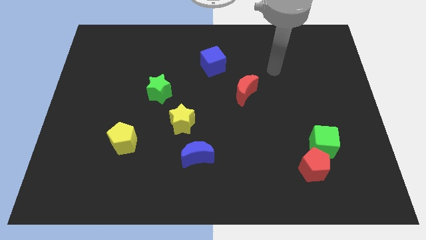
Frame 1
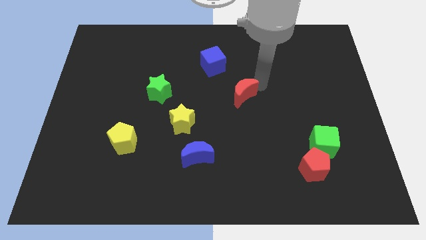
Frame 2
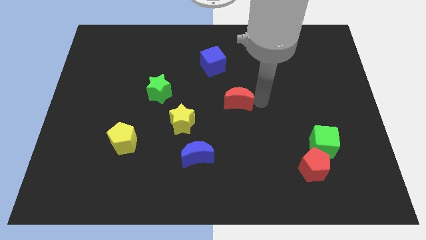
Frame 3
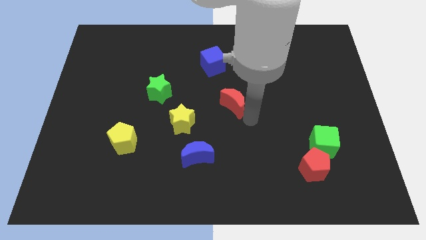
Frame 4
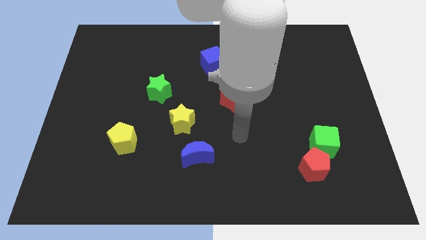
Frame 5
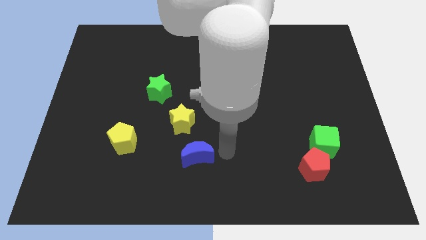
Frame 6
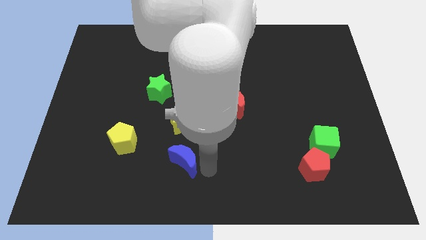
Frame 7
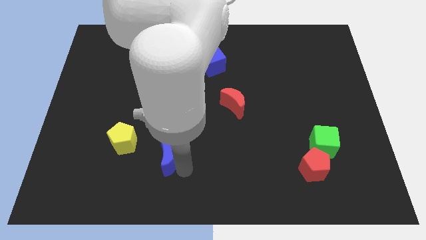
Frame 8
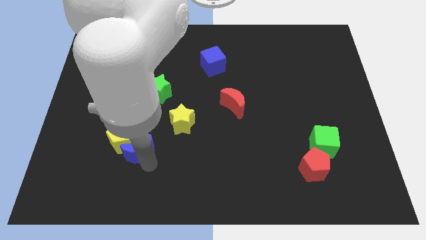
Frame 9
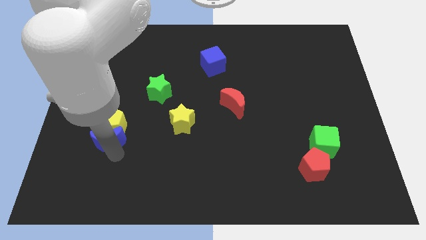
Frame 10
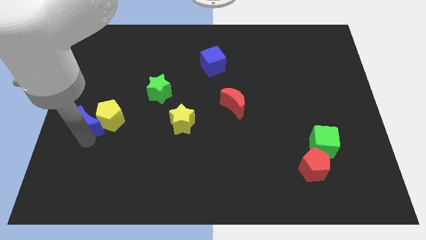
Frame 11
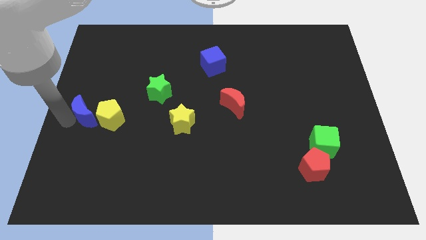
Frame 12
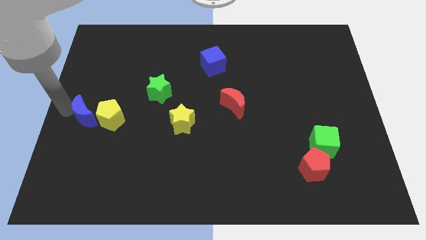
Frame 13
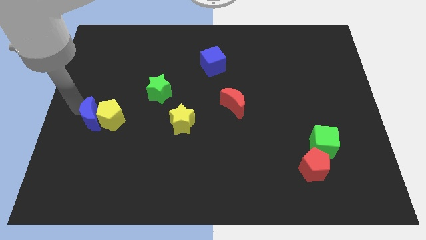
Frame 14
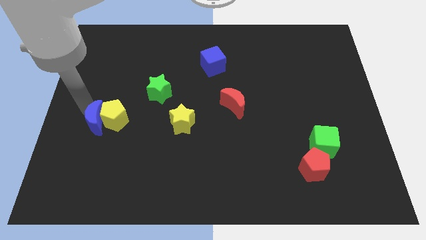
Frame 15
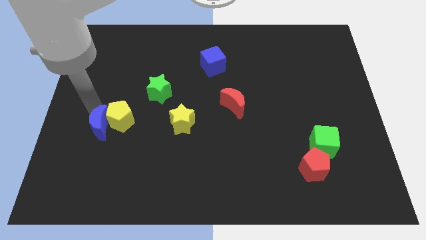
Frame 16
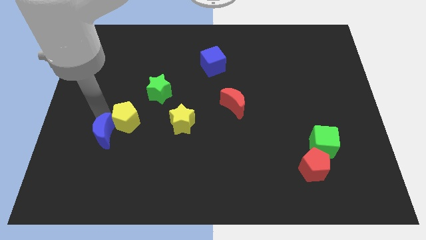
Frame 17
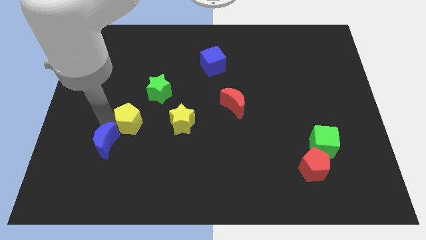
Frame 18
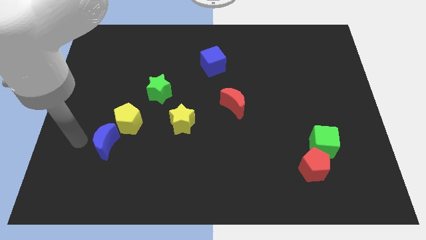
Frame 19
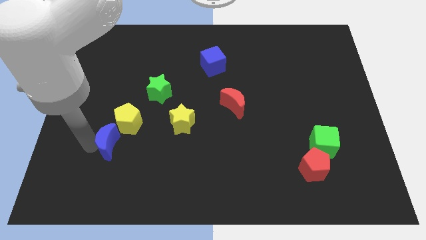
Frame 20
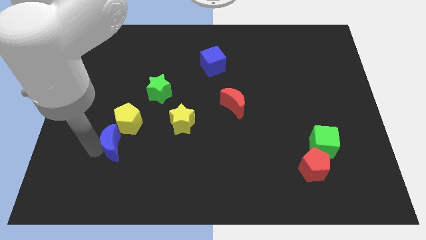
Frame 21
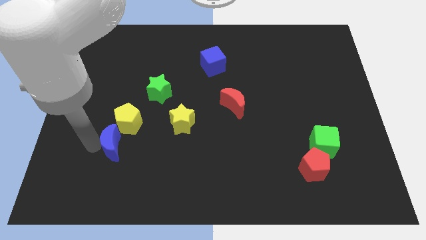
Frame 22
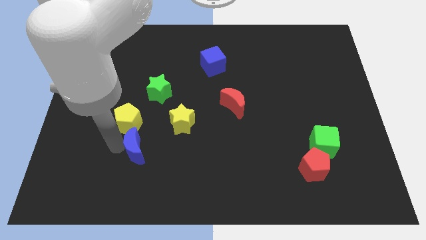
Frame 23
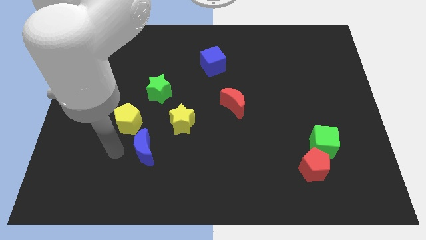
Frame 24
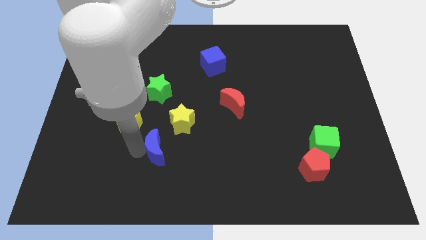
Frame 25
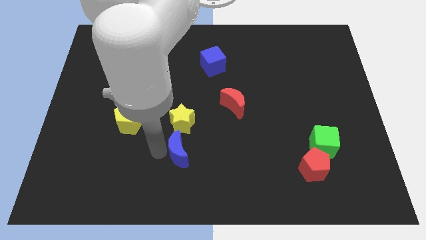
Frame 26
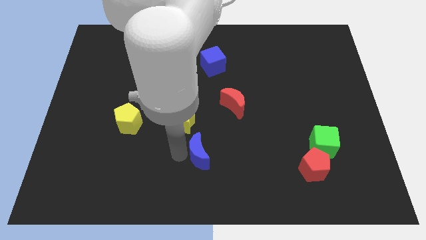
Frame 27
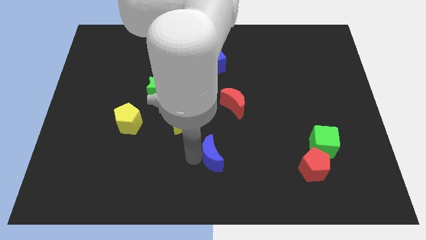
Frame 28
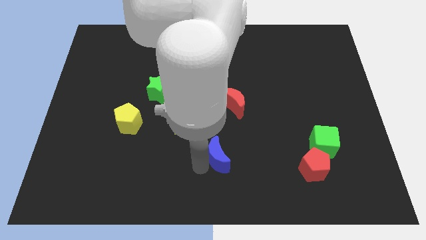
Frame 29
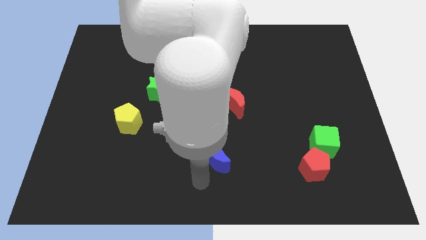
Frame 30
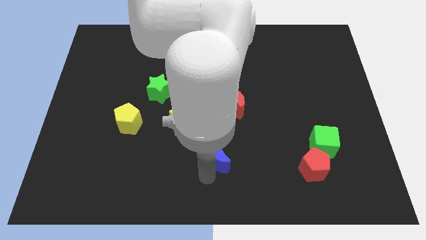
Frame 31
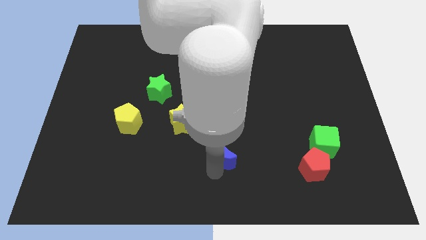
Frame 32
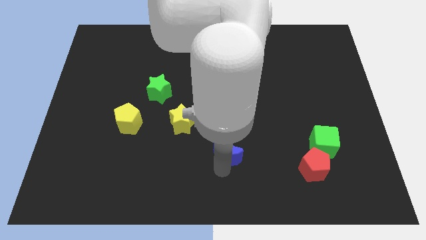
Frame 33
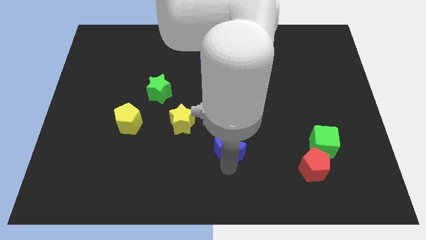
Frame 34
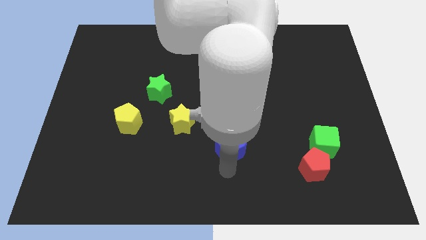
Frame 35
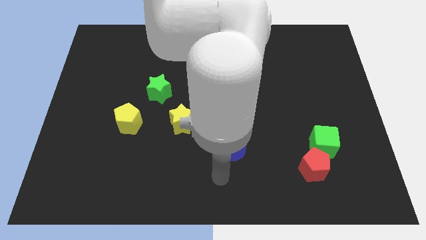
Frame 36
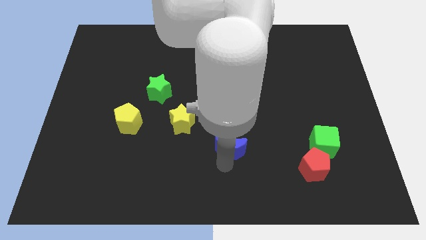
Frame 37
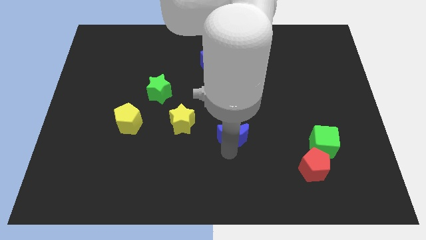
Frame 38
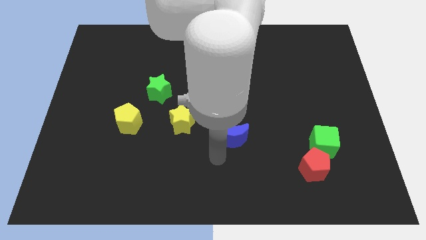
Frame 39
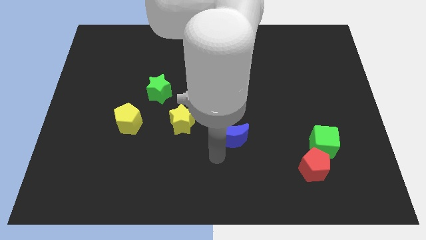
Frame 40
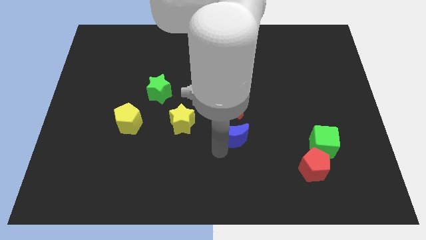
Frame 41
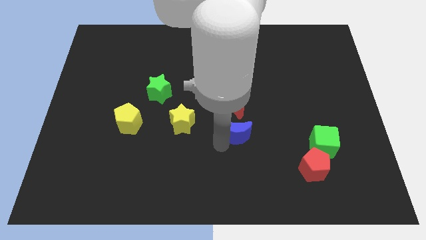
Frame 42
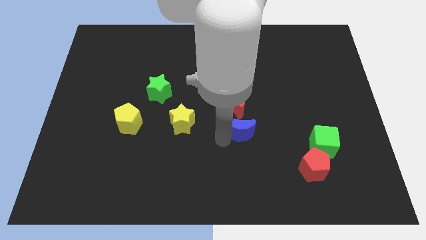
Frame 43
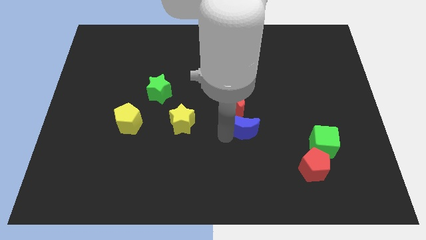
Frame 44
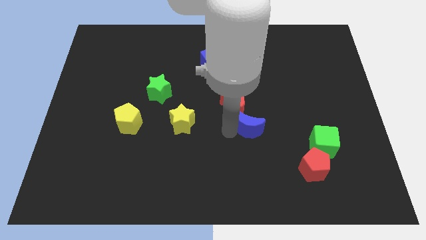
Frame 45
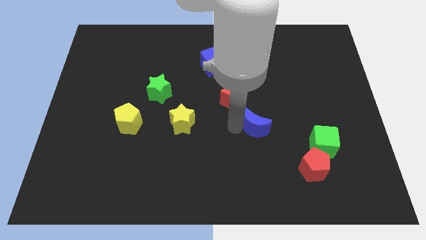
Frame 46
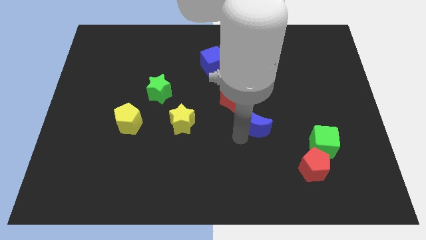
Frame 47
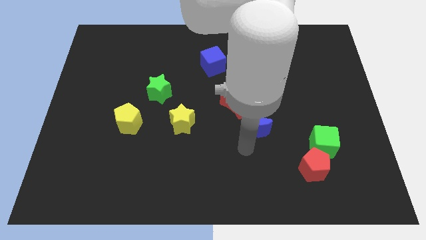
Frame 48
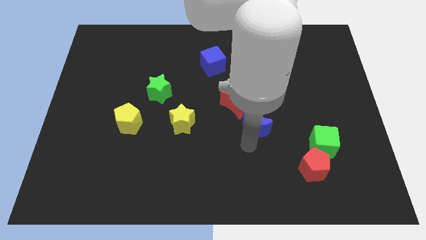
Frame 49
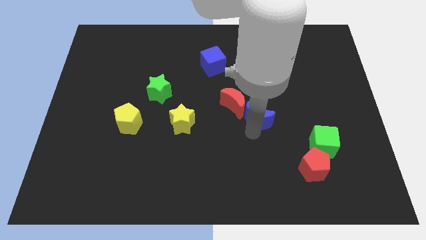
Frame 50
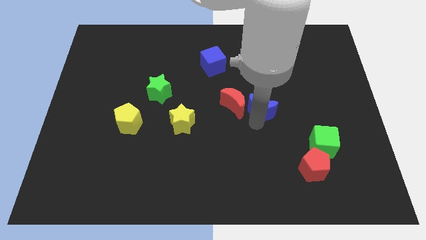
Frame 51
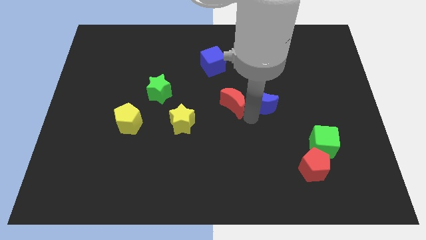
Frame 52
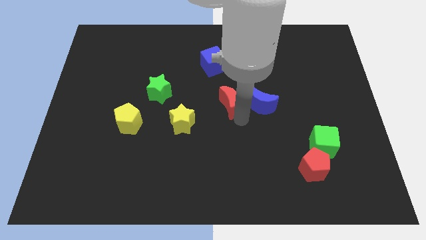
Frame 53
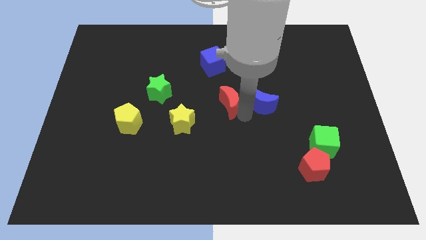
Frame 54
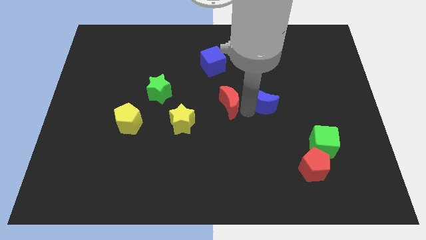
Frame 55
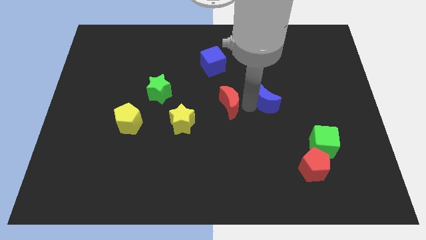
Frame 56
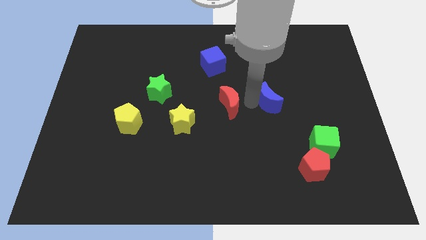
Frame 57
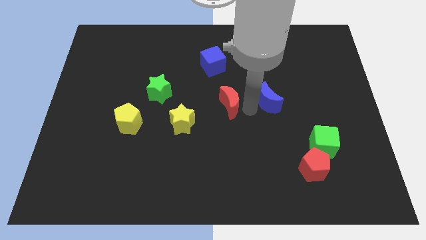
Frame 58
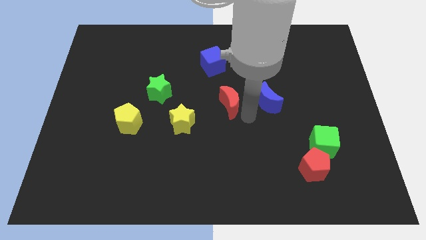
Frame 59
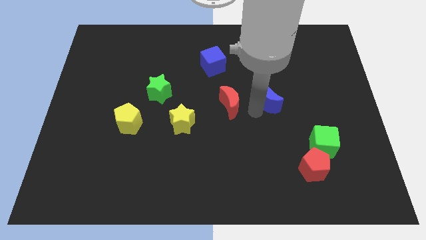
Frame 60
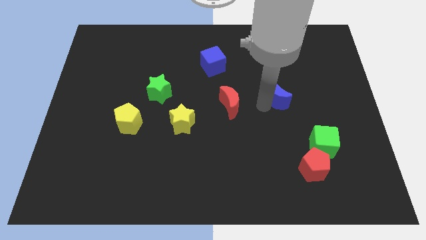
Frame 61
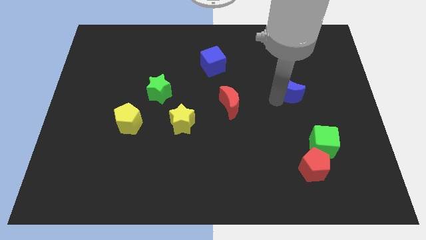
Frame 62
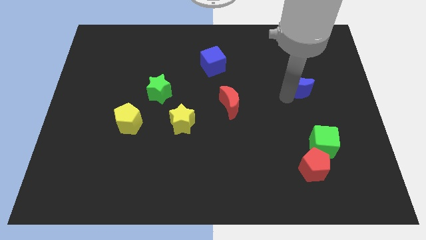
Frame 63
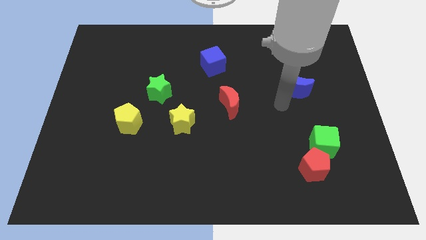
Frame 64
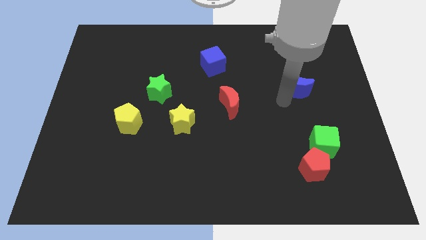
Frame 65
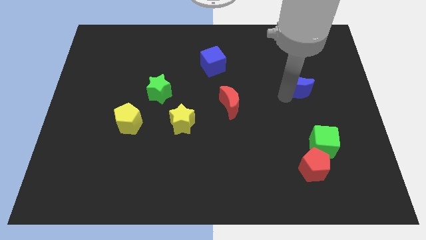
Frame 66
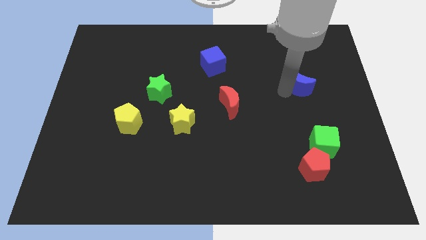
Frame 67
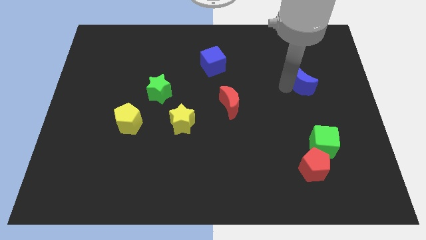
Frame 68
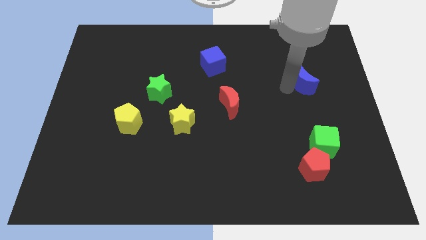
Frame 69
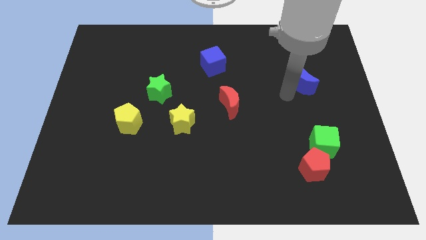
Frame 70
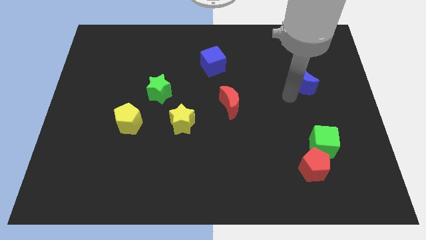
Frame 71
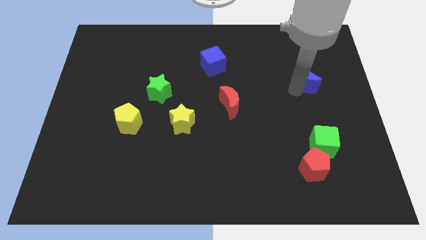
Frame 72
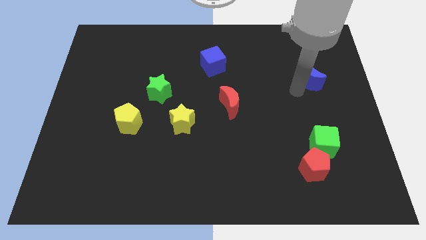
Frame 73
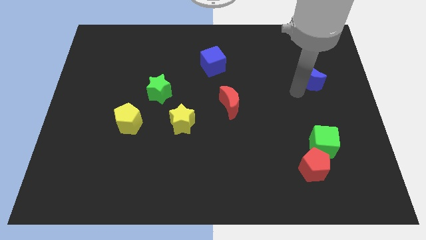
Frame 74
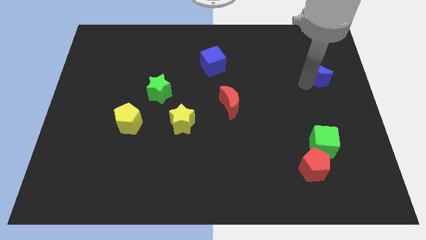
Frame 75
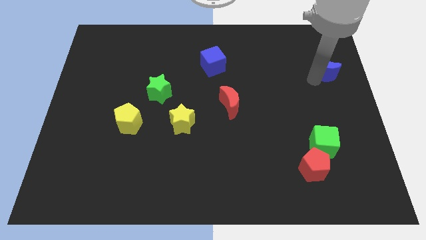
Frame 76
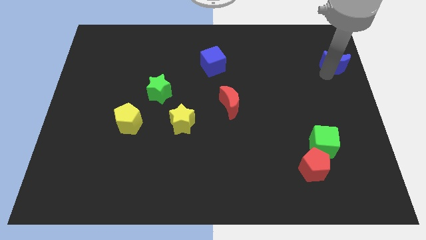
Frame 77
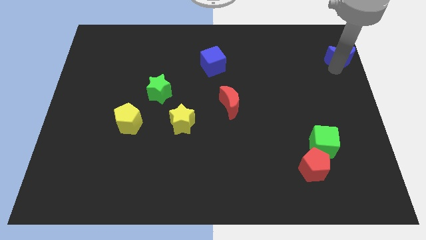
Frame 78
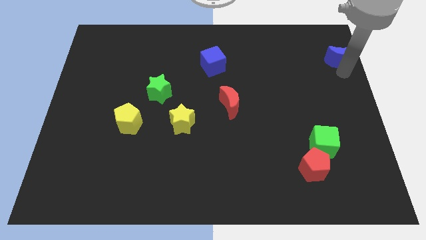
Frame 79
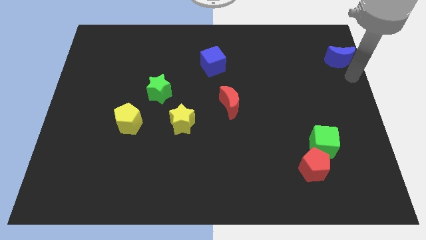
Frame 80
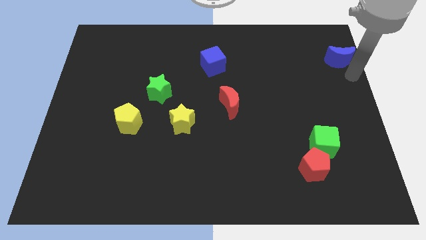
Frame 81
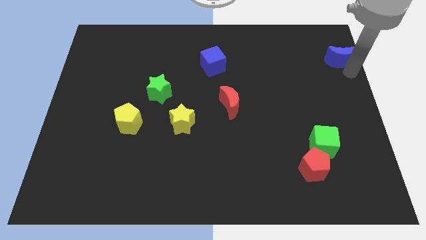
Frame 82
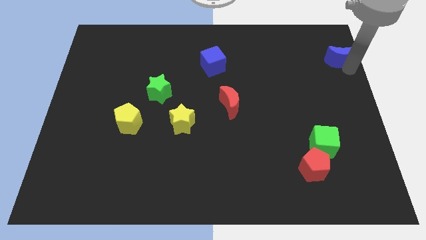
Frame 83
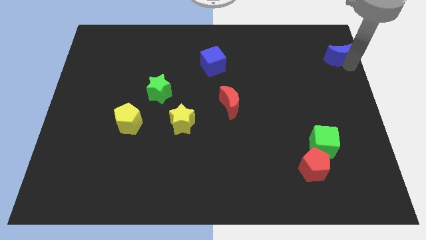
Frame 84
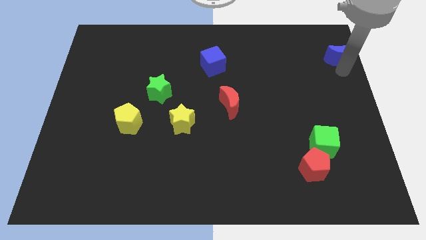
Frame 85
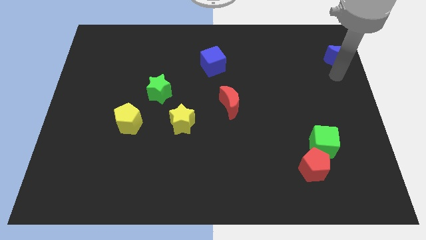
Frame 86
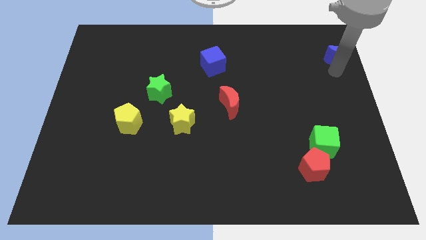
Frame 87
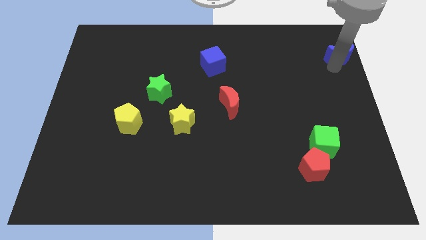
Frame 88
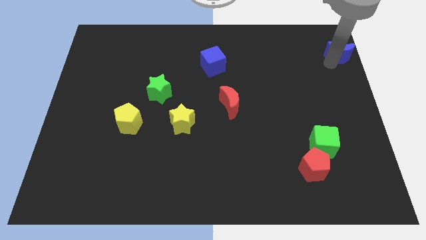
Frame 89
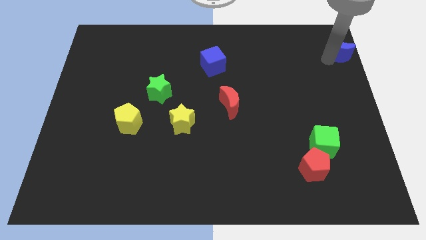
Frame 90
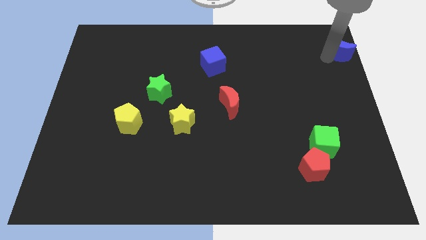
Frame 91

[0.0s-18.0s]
push the blue moon to the top right corner
